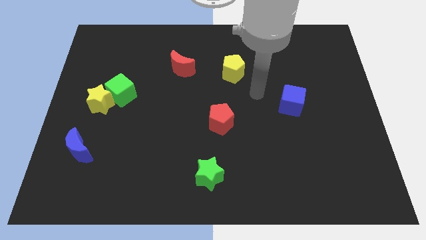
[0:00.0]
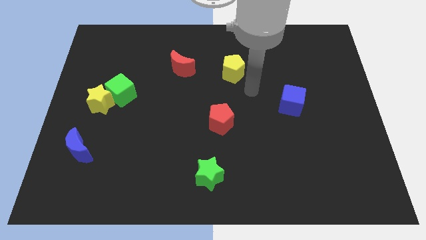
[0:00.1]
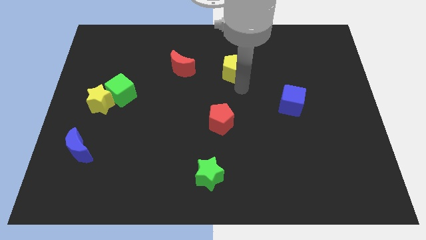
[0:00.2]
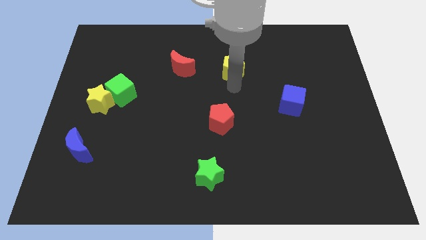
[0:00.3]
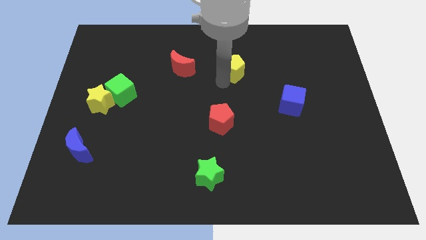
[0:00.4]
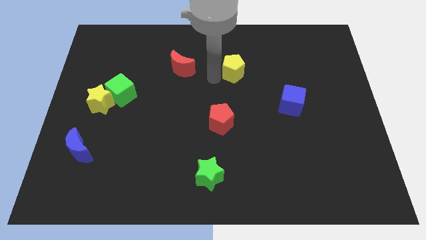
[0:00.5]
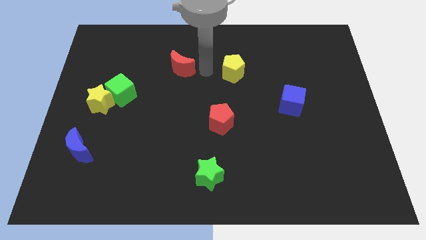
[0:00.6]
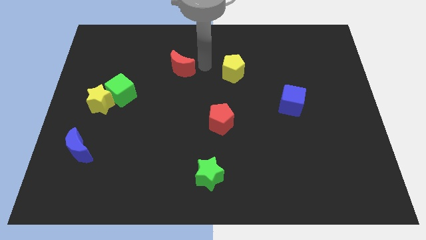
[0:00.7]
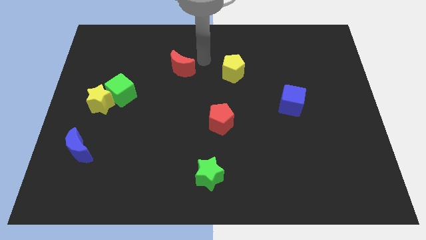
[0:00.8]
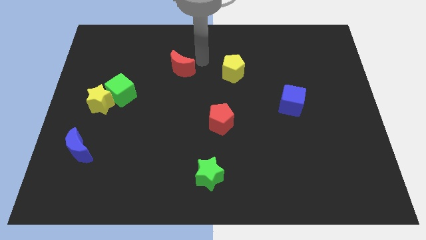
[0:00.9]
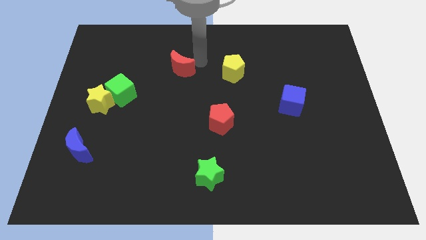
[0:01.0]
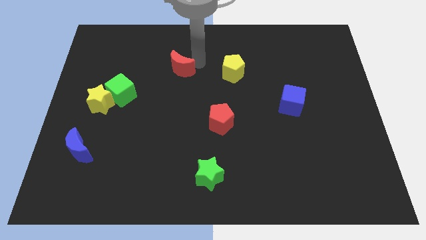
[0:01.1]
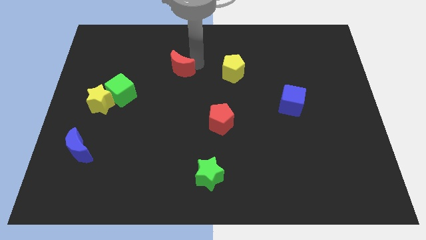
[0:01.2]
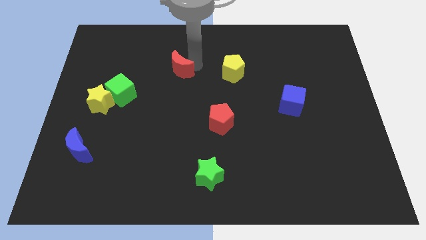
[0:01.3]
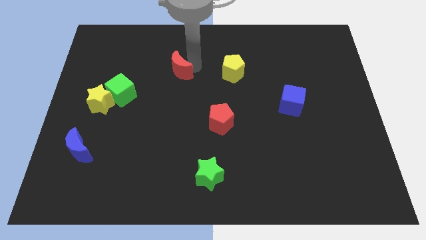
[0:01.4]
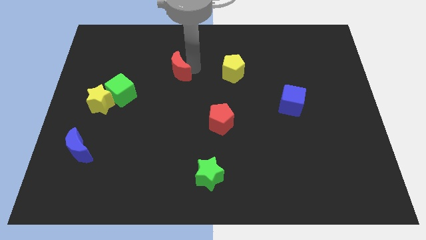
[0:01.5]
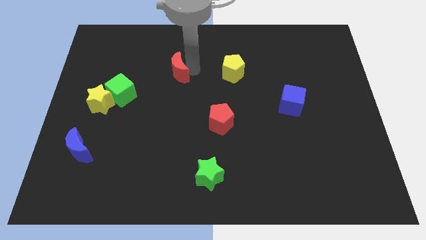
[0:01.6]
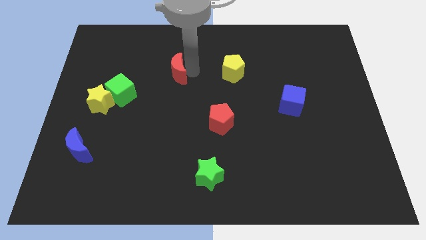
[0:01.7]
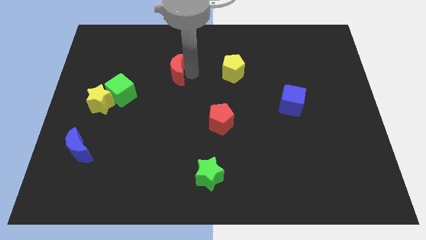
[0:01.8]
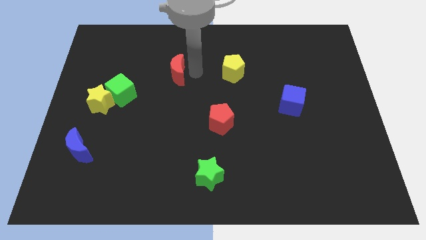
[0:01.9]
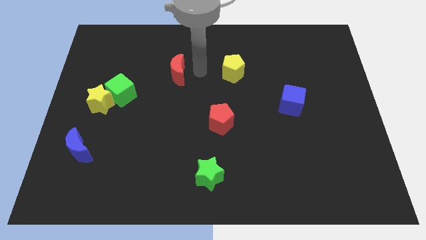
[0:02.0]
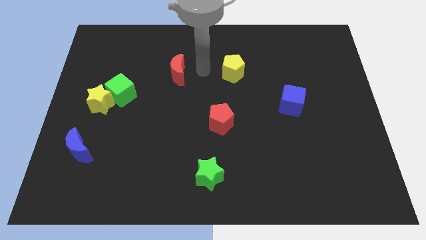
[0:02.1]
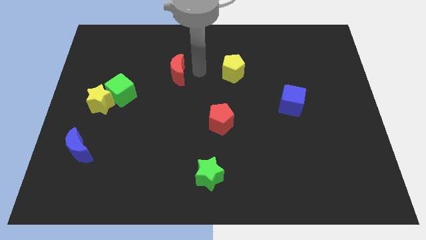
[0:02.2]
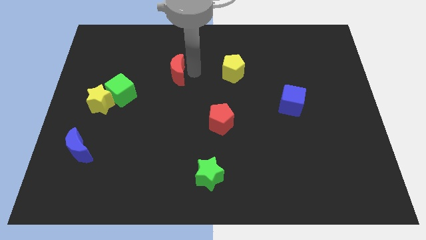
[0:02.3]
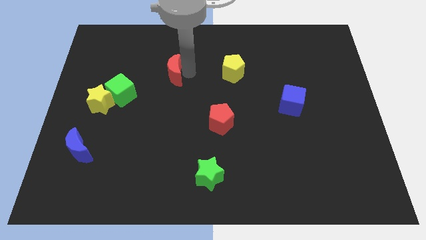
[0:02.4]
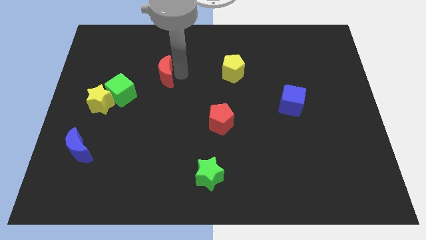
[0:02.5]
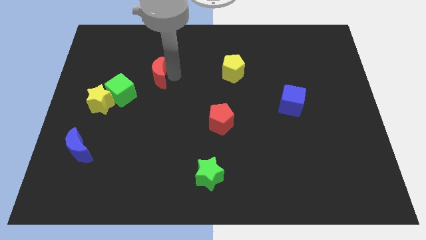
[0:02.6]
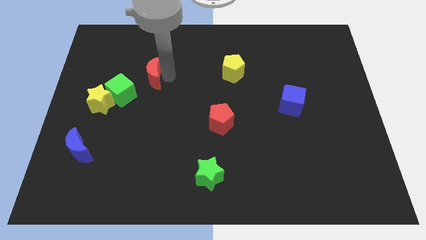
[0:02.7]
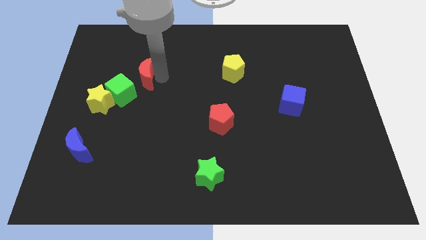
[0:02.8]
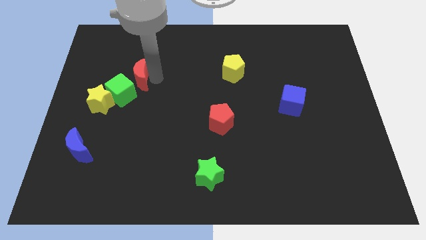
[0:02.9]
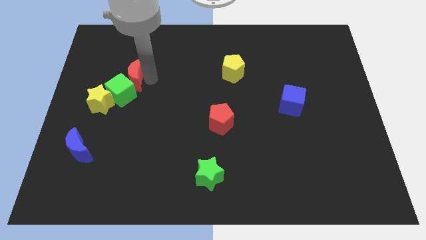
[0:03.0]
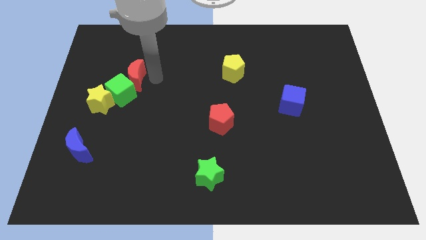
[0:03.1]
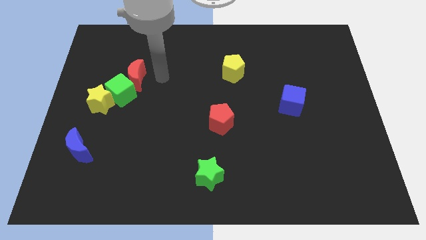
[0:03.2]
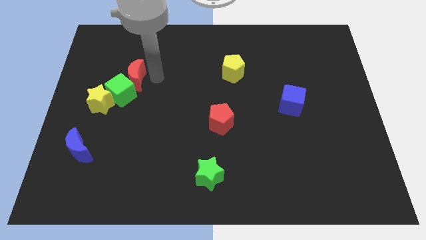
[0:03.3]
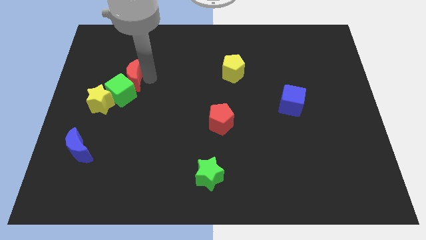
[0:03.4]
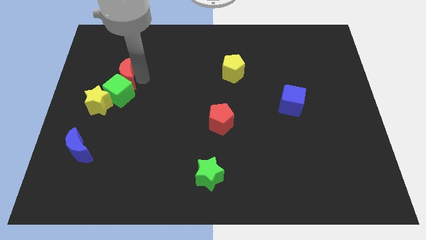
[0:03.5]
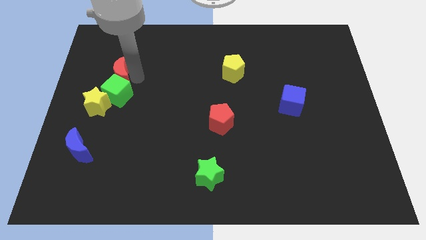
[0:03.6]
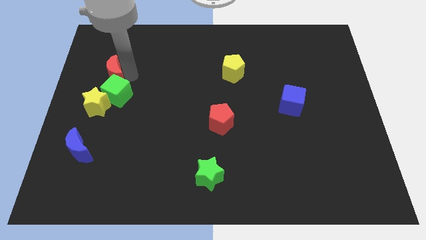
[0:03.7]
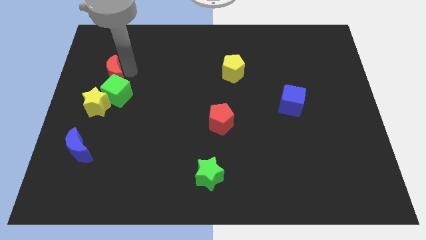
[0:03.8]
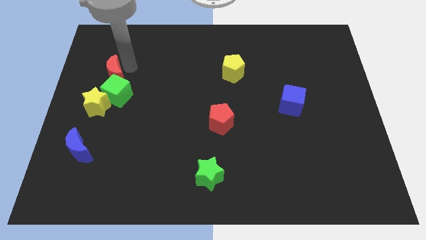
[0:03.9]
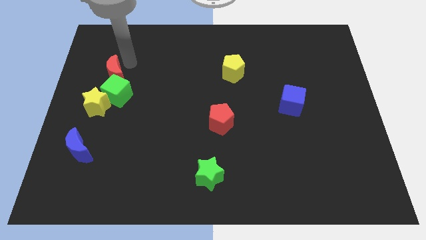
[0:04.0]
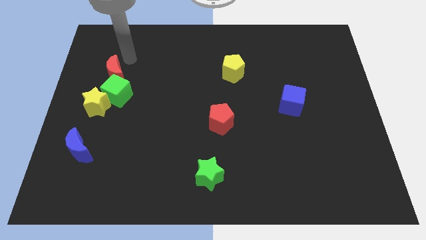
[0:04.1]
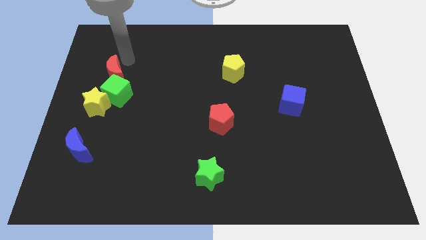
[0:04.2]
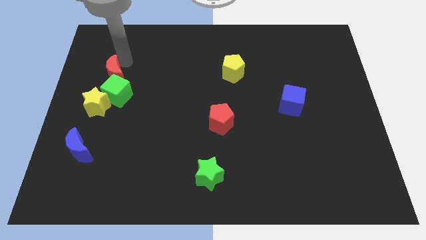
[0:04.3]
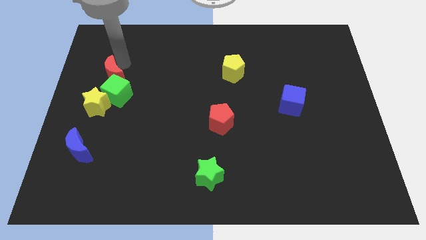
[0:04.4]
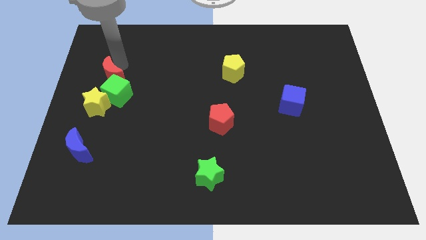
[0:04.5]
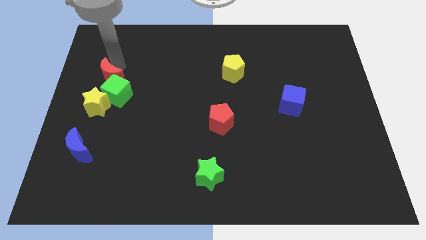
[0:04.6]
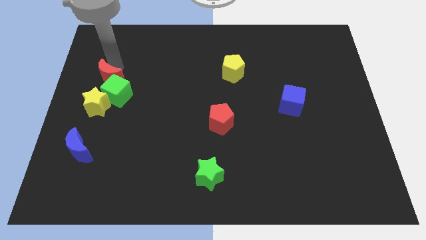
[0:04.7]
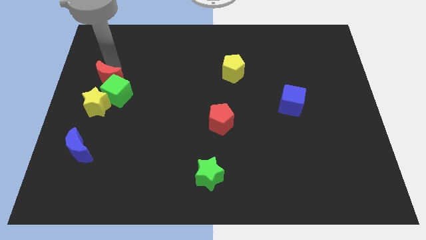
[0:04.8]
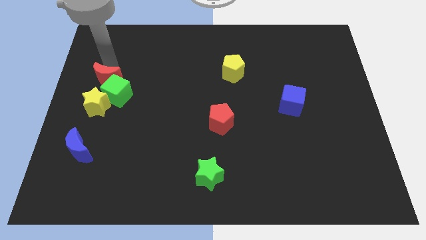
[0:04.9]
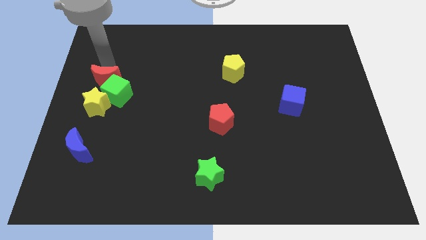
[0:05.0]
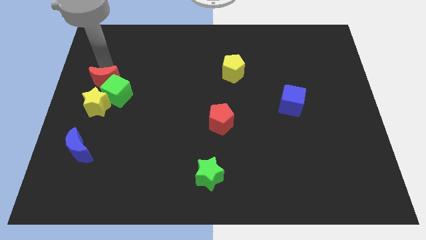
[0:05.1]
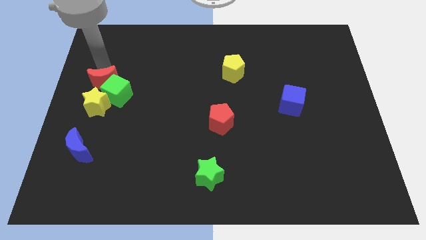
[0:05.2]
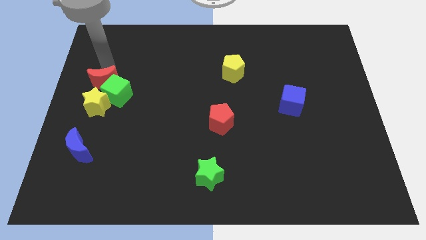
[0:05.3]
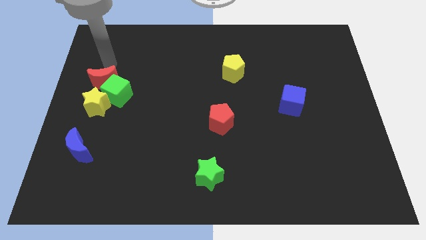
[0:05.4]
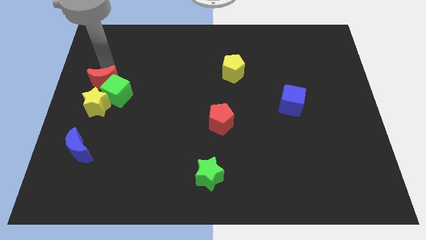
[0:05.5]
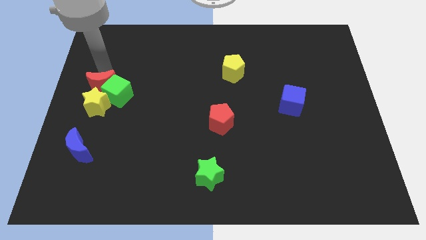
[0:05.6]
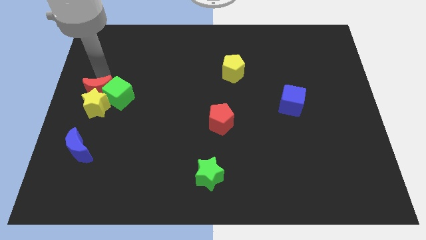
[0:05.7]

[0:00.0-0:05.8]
slide the red moon close to the yellow star

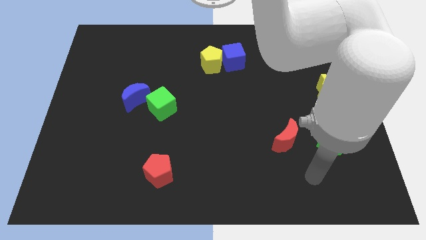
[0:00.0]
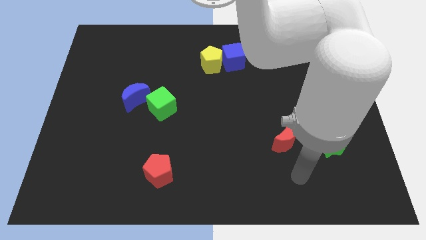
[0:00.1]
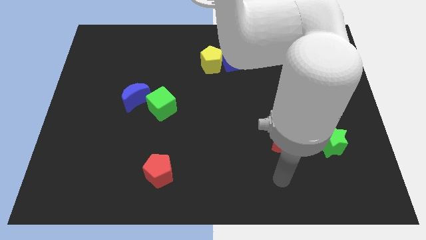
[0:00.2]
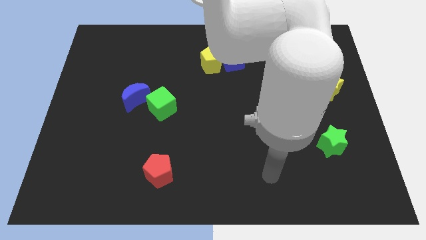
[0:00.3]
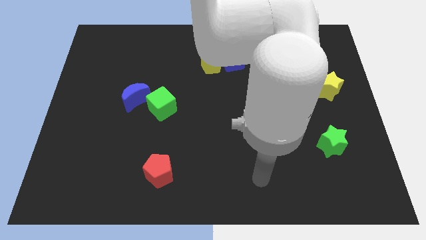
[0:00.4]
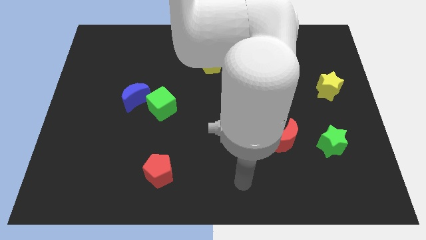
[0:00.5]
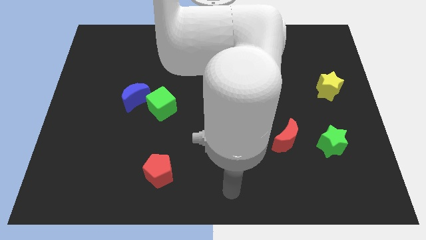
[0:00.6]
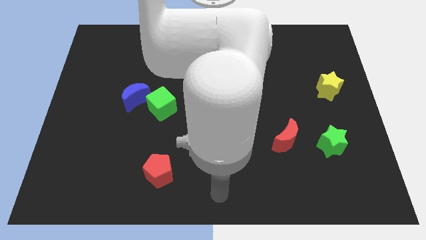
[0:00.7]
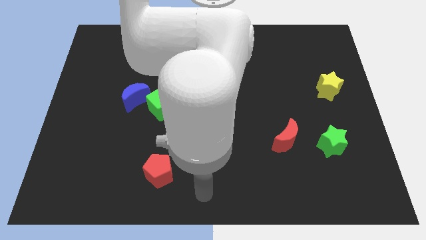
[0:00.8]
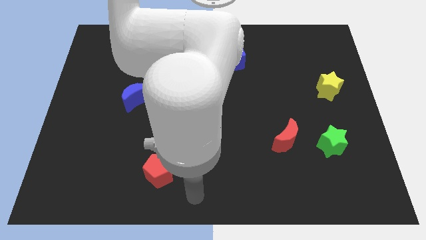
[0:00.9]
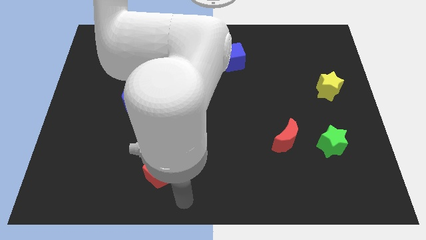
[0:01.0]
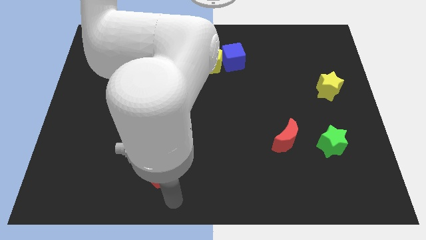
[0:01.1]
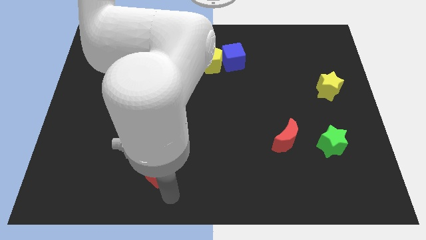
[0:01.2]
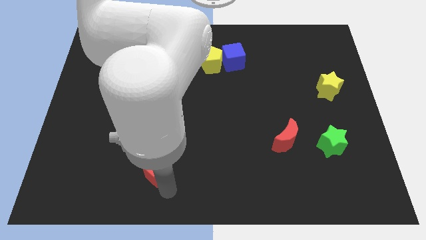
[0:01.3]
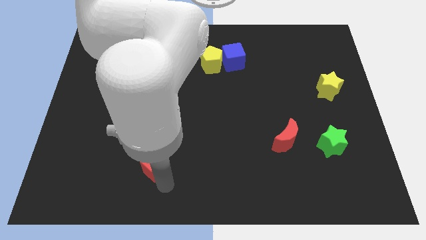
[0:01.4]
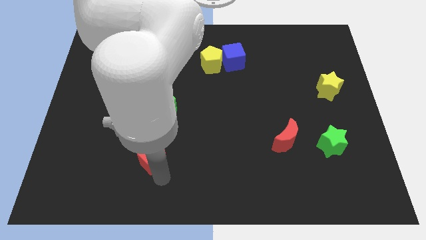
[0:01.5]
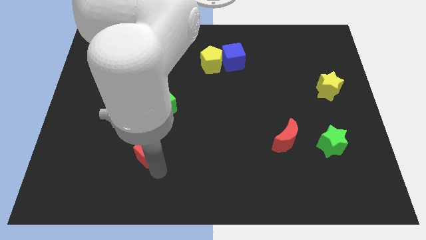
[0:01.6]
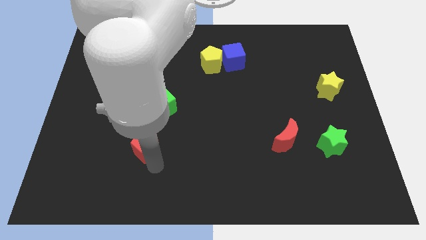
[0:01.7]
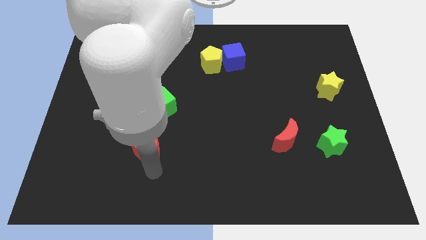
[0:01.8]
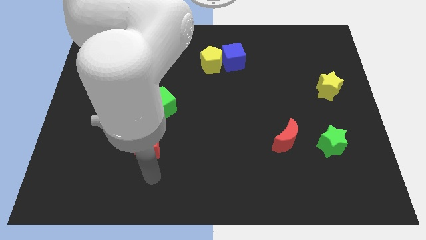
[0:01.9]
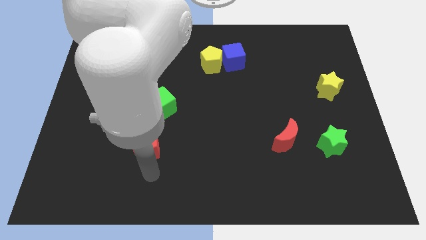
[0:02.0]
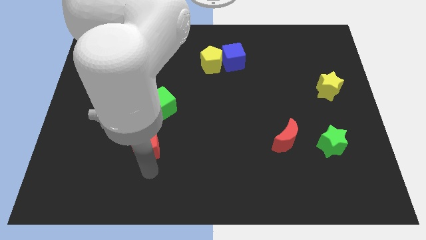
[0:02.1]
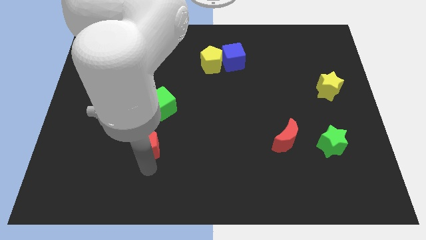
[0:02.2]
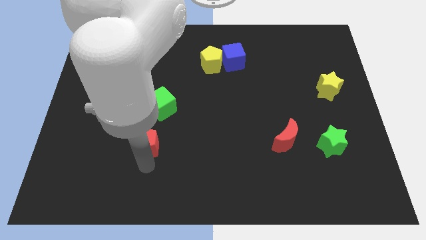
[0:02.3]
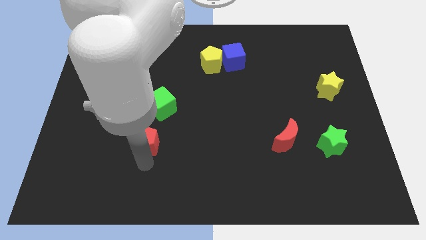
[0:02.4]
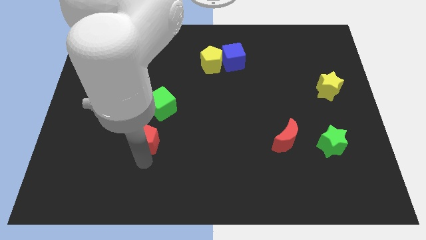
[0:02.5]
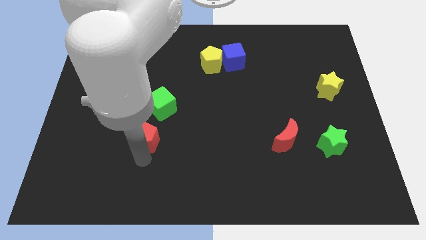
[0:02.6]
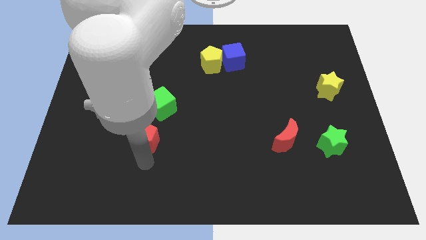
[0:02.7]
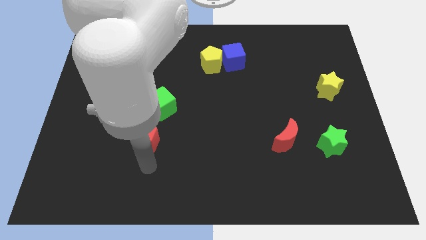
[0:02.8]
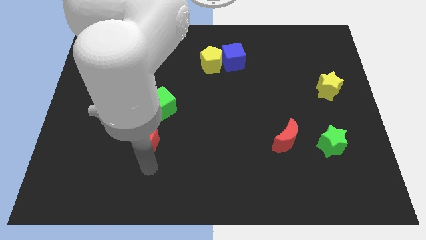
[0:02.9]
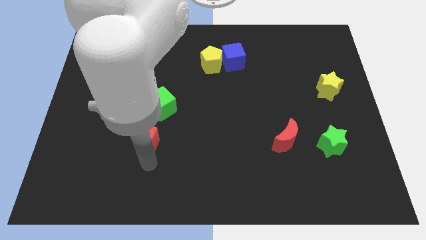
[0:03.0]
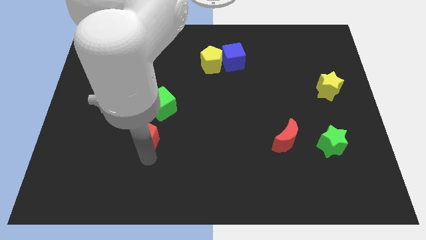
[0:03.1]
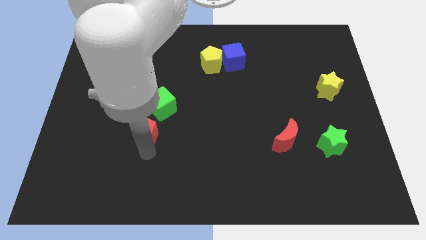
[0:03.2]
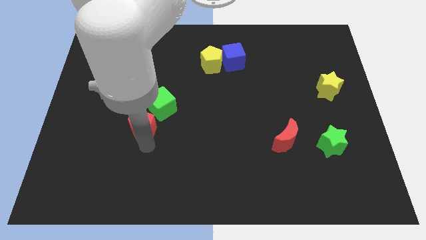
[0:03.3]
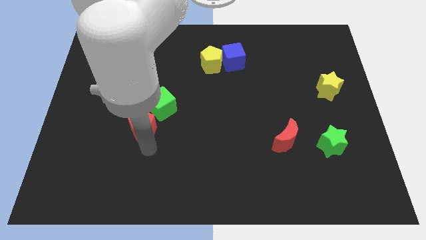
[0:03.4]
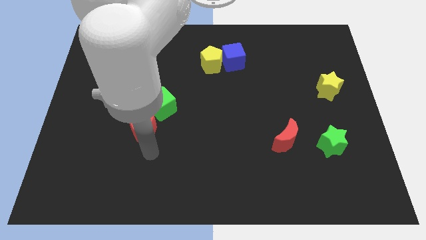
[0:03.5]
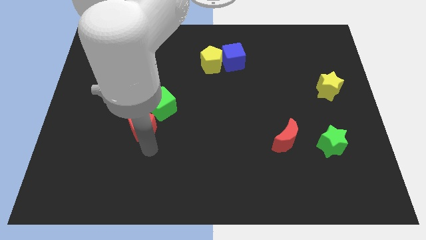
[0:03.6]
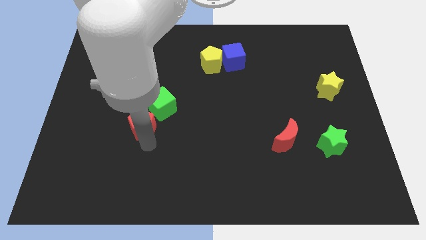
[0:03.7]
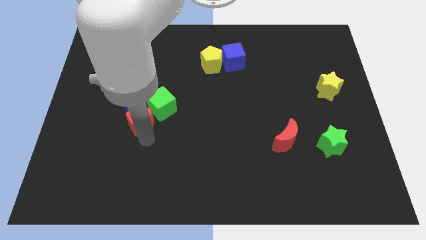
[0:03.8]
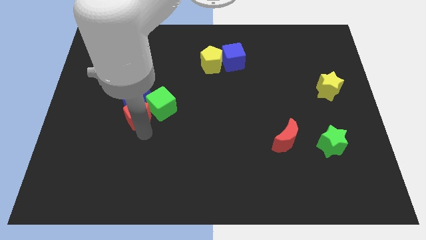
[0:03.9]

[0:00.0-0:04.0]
push the red pentagon to the blue moon
